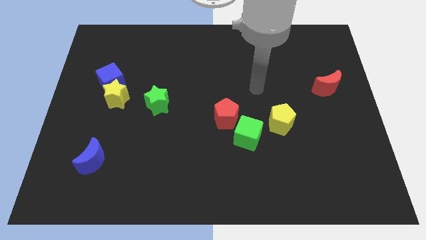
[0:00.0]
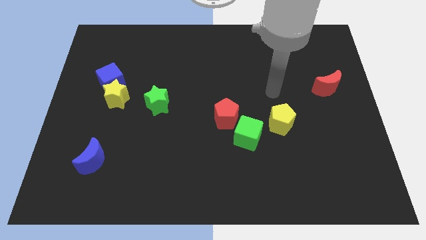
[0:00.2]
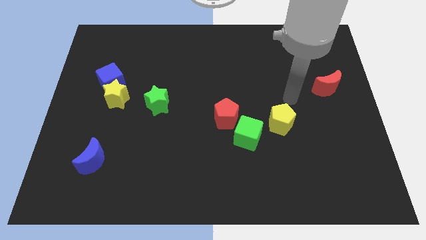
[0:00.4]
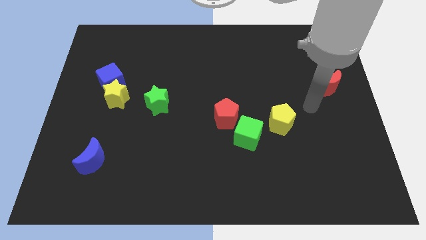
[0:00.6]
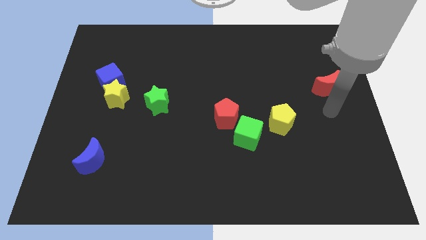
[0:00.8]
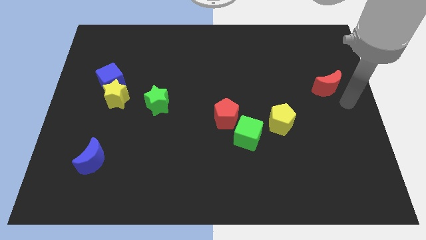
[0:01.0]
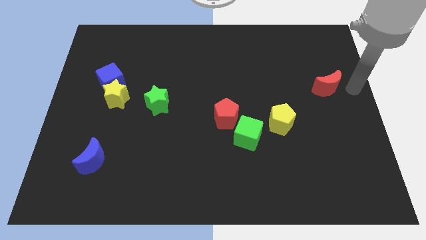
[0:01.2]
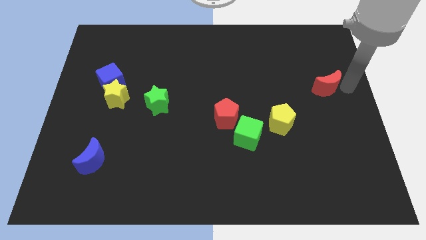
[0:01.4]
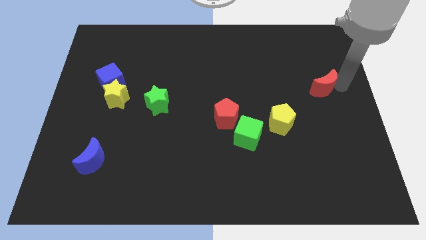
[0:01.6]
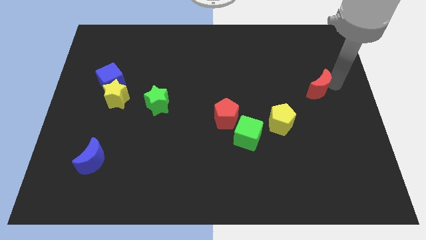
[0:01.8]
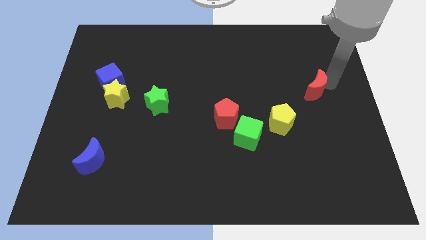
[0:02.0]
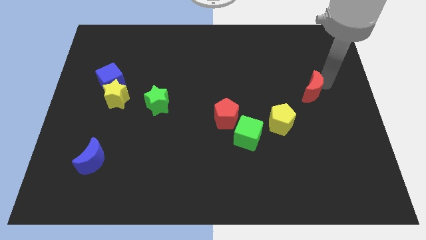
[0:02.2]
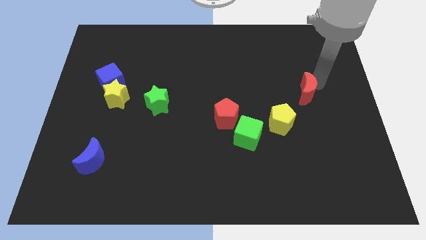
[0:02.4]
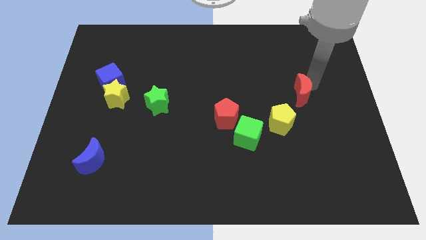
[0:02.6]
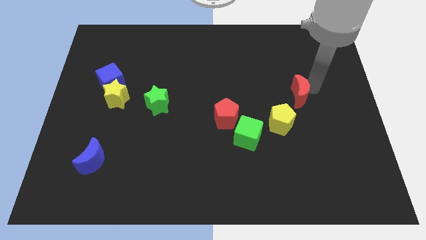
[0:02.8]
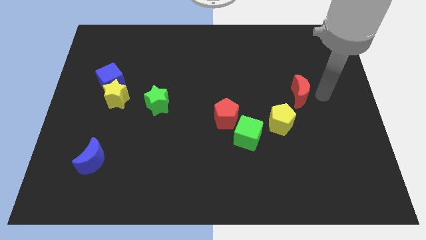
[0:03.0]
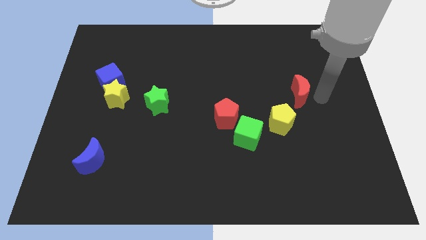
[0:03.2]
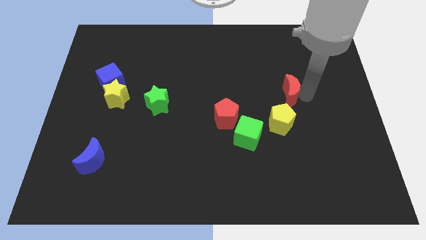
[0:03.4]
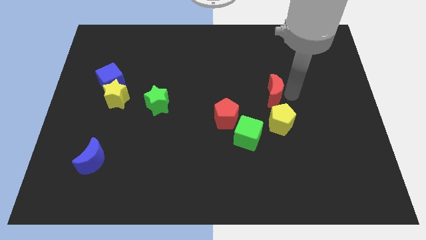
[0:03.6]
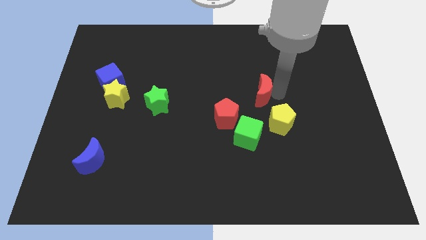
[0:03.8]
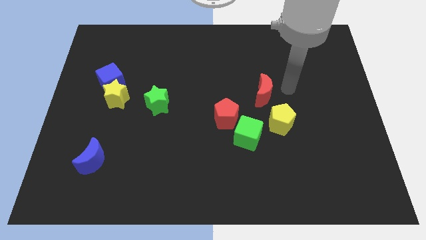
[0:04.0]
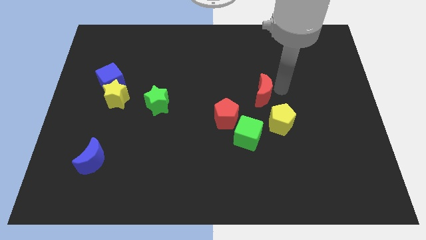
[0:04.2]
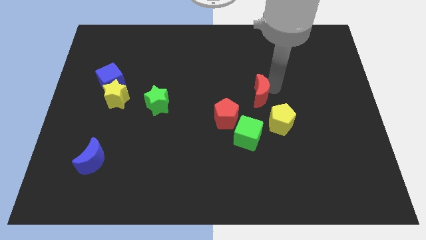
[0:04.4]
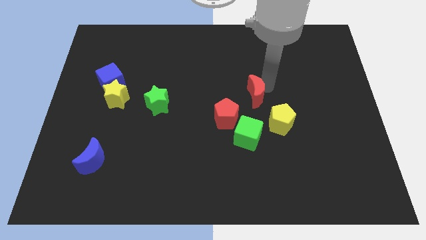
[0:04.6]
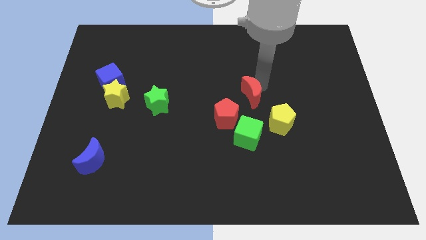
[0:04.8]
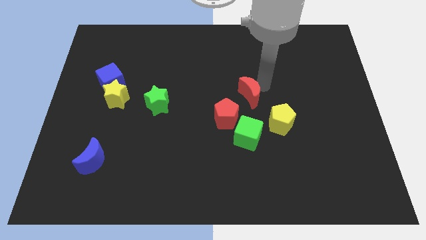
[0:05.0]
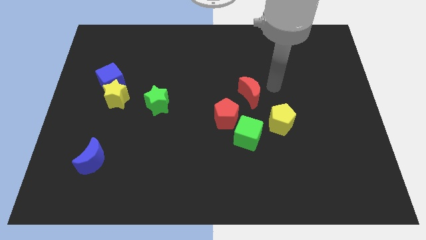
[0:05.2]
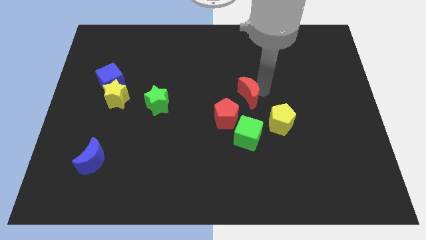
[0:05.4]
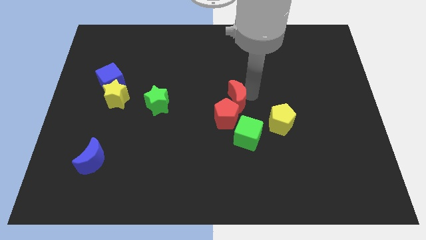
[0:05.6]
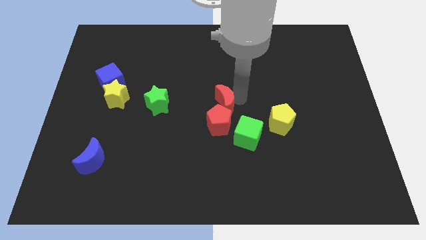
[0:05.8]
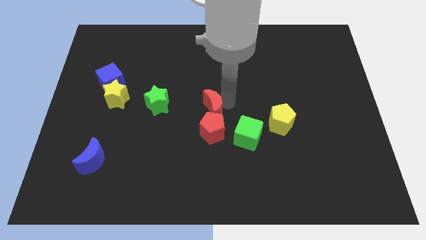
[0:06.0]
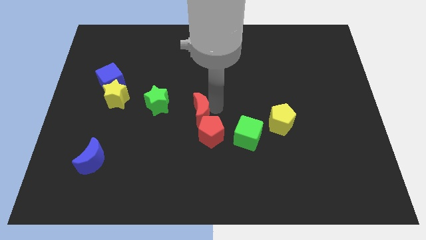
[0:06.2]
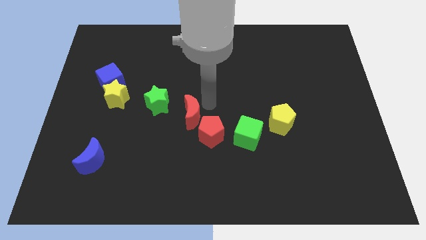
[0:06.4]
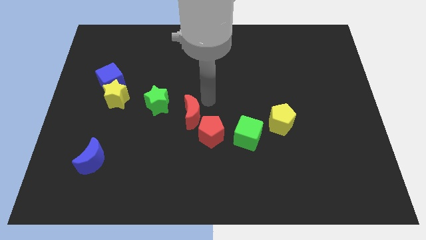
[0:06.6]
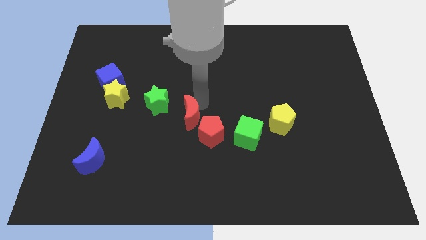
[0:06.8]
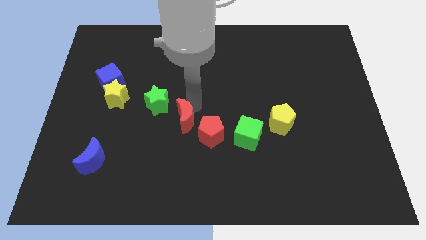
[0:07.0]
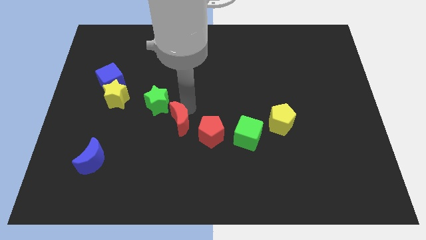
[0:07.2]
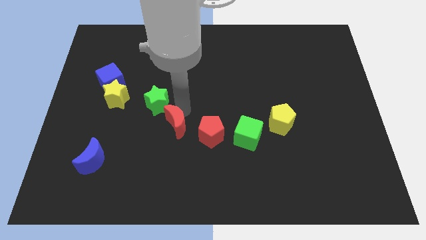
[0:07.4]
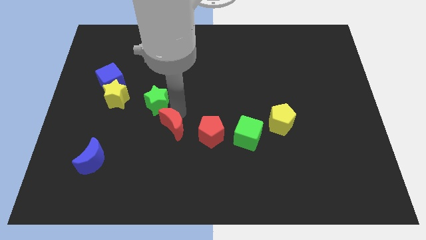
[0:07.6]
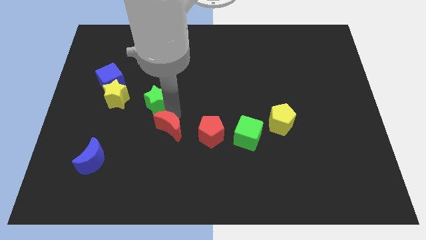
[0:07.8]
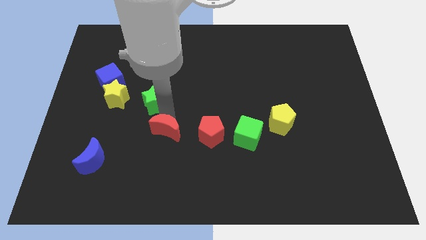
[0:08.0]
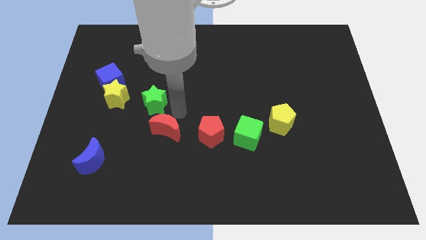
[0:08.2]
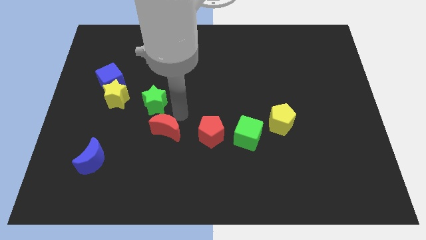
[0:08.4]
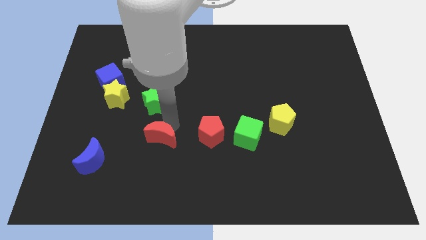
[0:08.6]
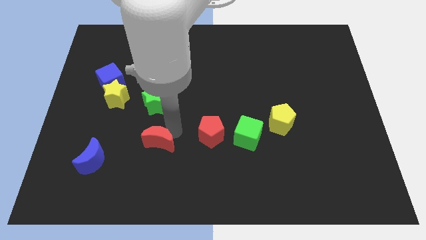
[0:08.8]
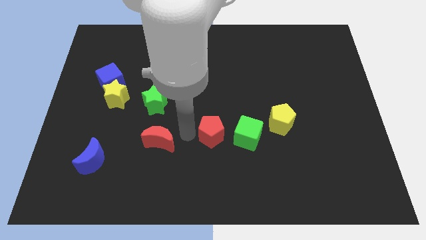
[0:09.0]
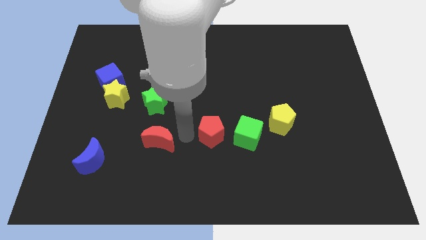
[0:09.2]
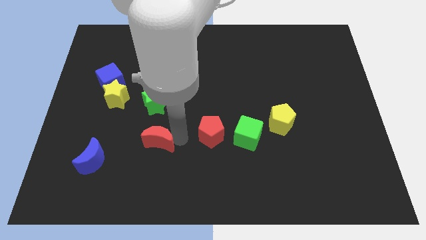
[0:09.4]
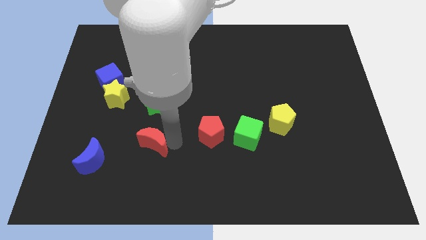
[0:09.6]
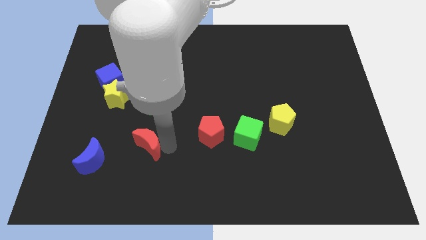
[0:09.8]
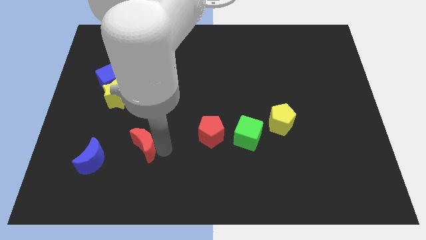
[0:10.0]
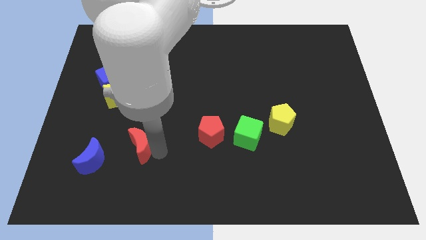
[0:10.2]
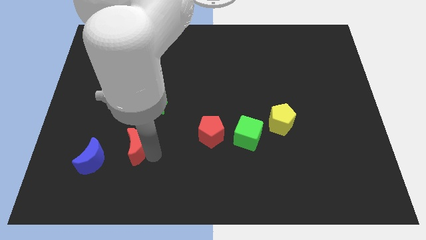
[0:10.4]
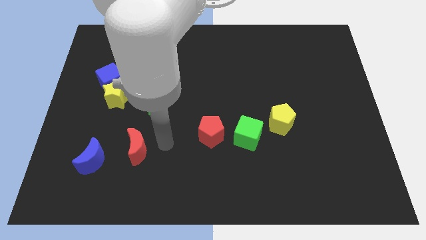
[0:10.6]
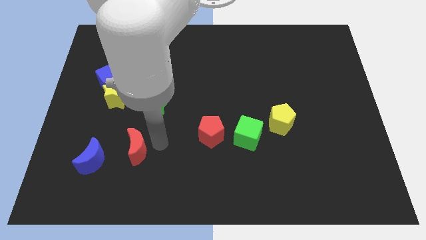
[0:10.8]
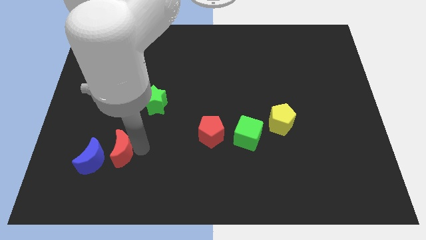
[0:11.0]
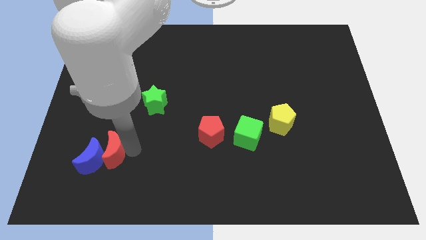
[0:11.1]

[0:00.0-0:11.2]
slide the red moon next to the blue moon

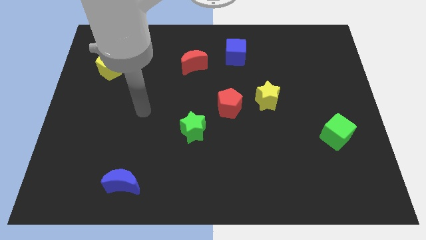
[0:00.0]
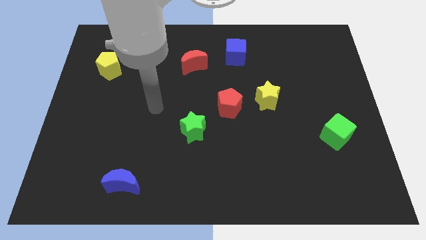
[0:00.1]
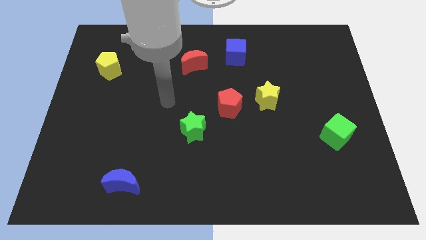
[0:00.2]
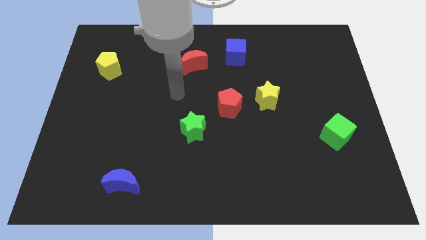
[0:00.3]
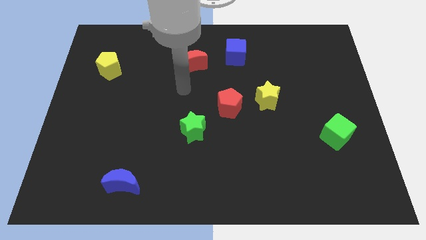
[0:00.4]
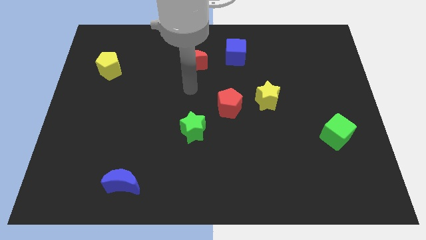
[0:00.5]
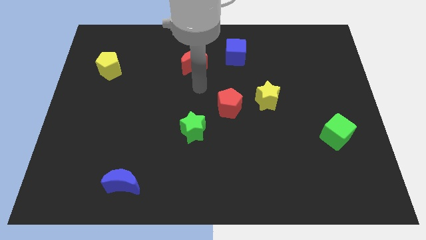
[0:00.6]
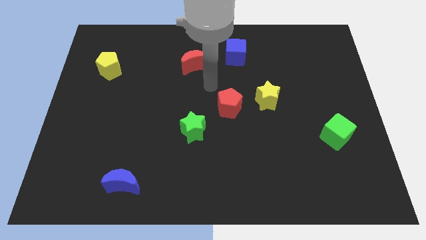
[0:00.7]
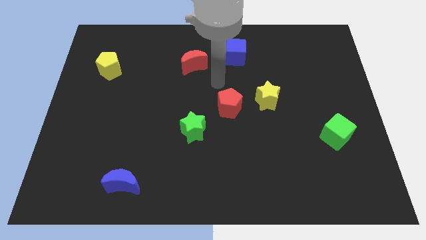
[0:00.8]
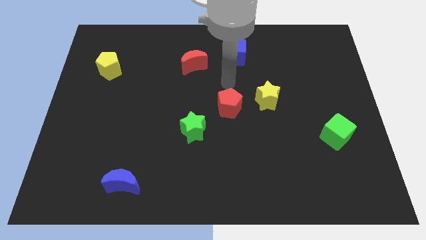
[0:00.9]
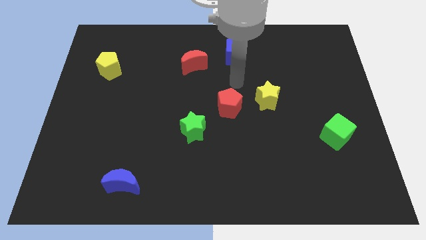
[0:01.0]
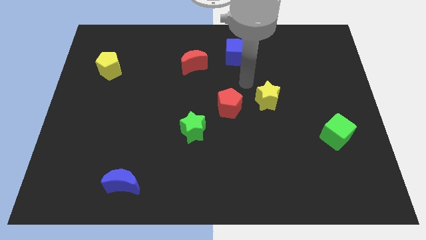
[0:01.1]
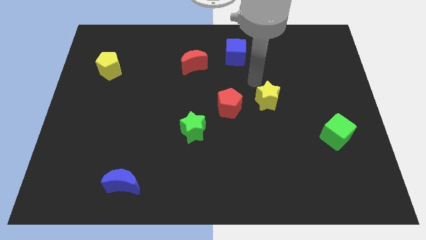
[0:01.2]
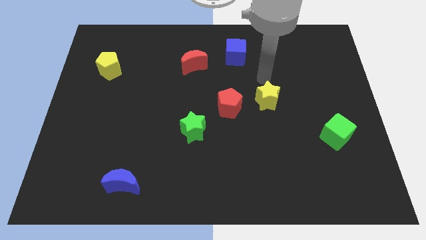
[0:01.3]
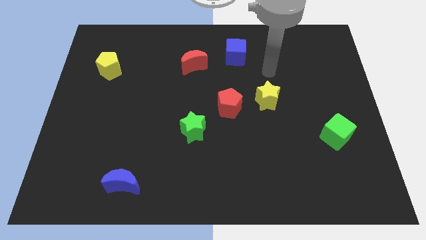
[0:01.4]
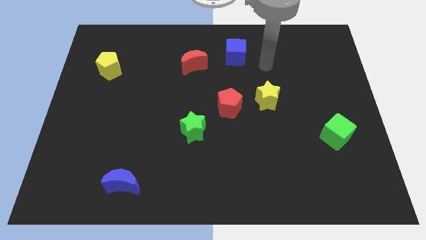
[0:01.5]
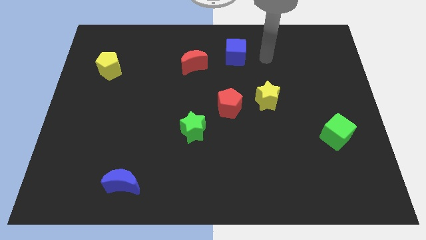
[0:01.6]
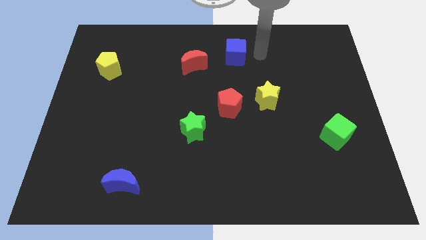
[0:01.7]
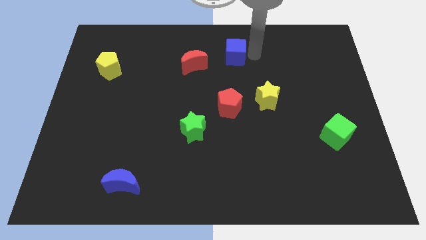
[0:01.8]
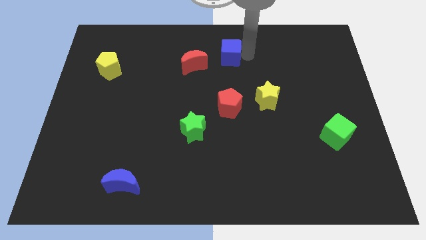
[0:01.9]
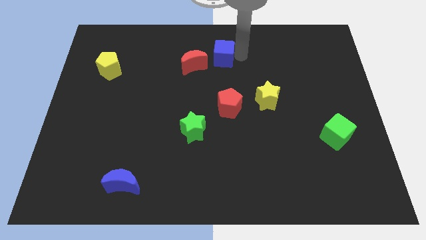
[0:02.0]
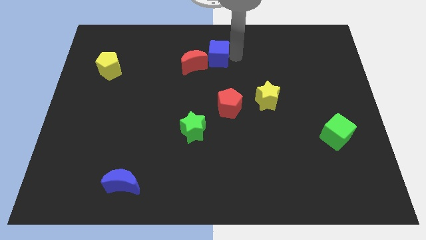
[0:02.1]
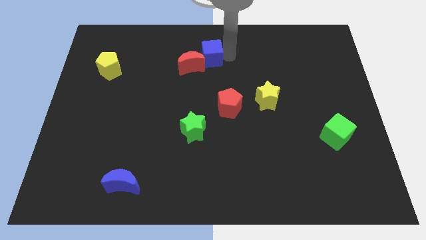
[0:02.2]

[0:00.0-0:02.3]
move the blue cube next to the red moon
